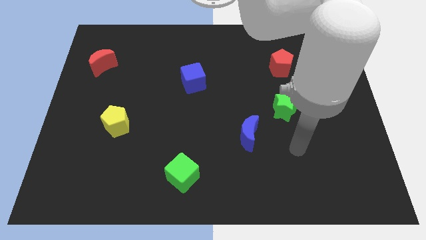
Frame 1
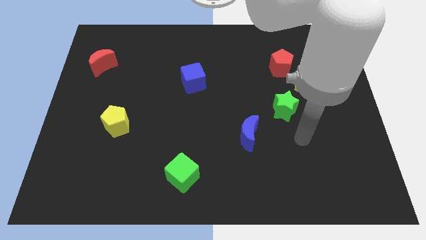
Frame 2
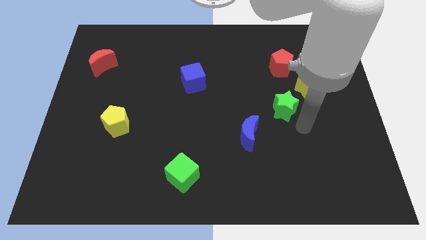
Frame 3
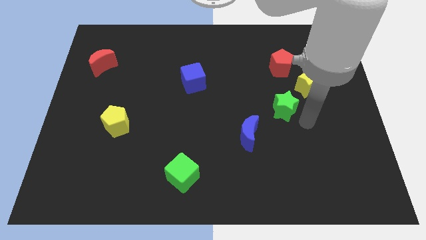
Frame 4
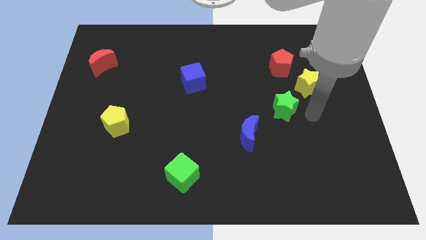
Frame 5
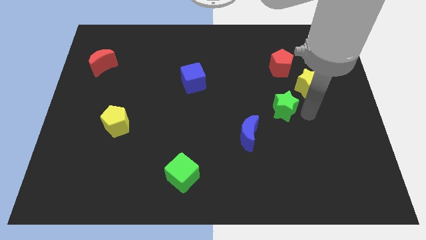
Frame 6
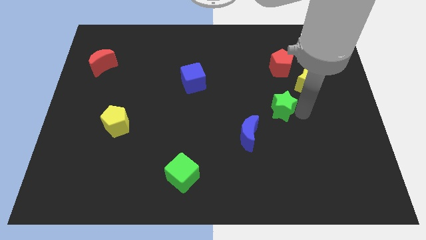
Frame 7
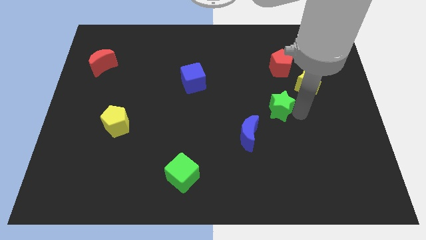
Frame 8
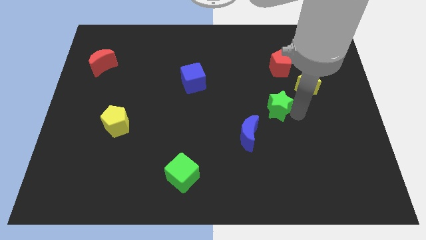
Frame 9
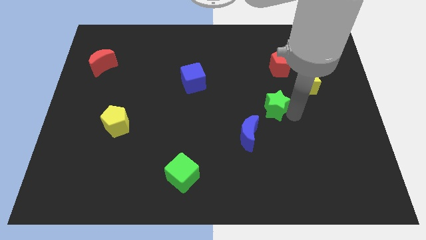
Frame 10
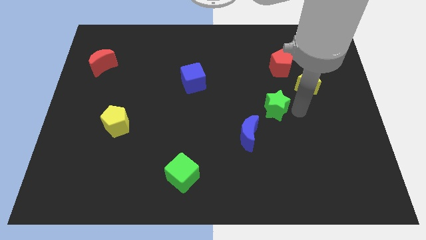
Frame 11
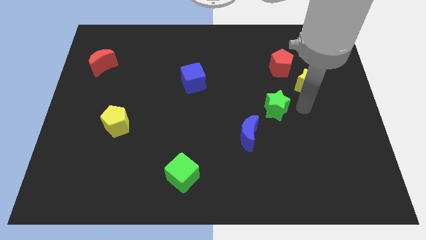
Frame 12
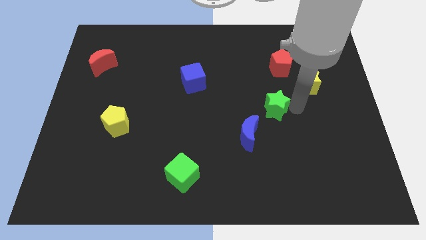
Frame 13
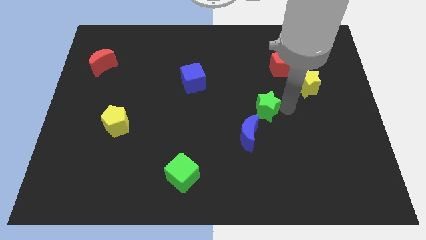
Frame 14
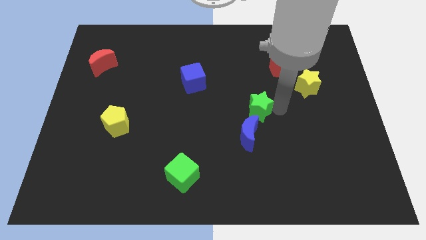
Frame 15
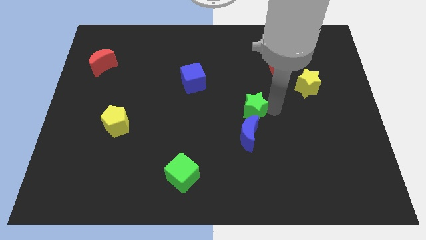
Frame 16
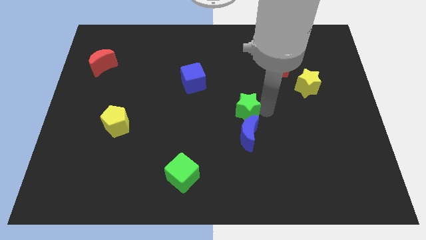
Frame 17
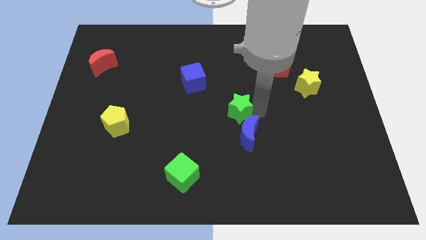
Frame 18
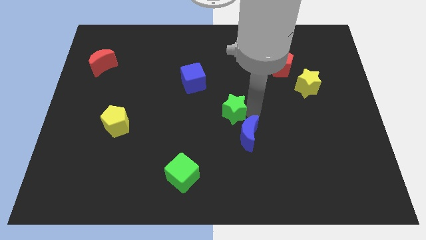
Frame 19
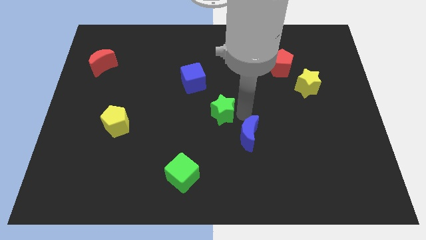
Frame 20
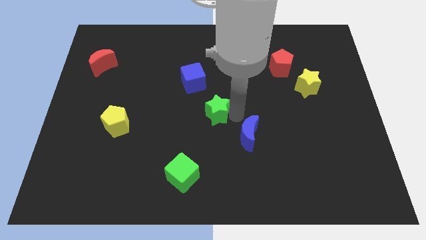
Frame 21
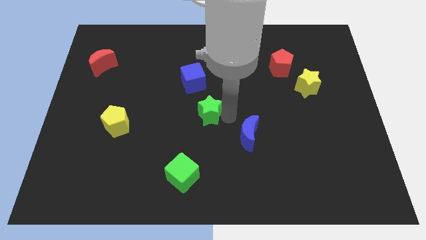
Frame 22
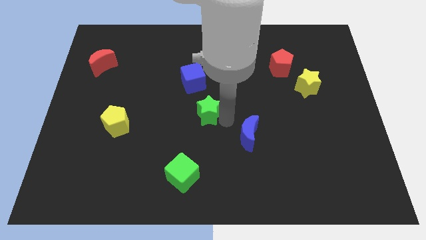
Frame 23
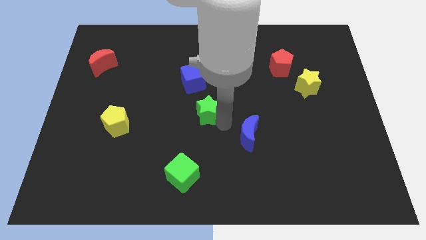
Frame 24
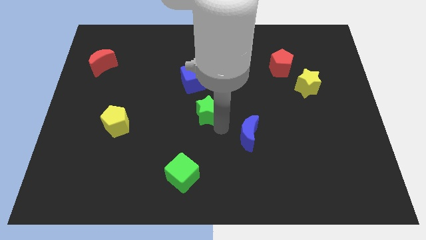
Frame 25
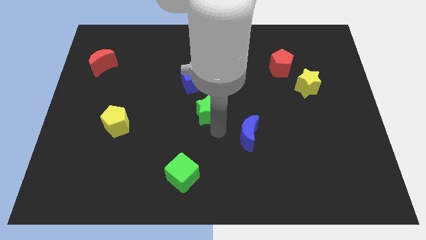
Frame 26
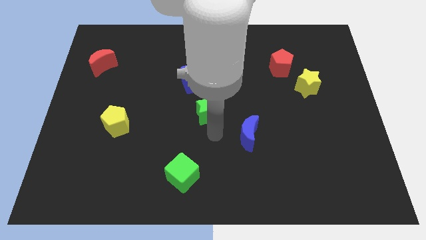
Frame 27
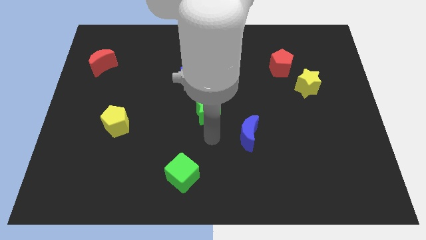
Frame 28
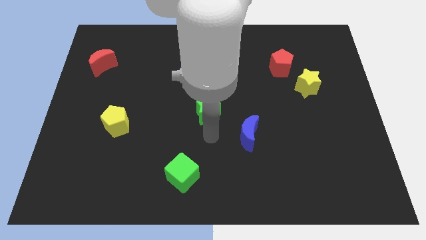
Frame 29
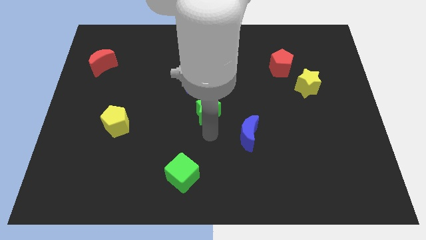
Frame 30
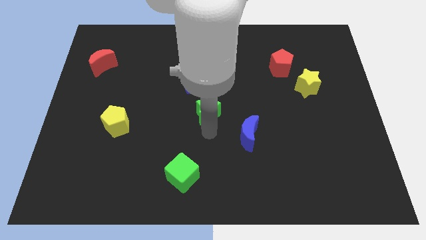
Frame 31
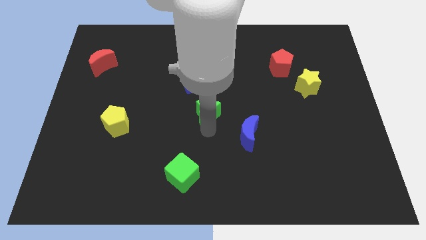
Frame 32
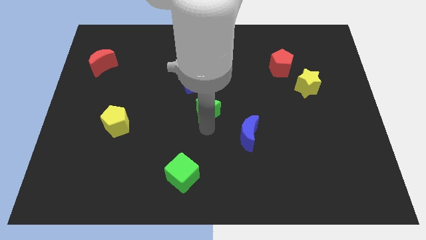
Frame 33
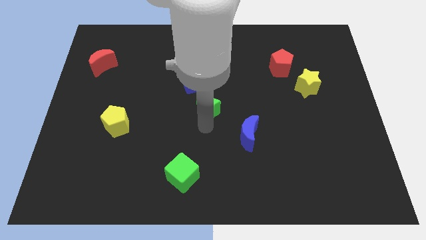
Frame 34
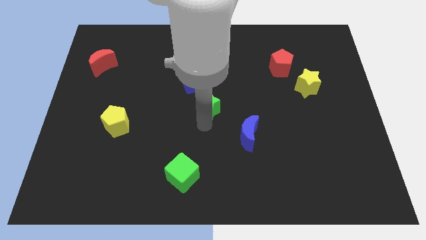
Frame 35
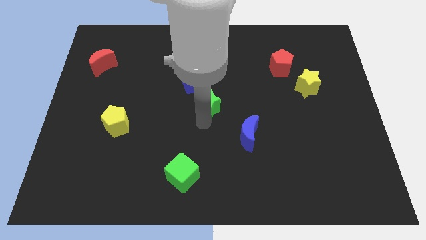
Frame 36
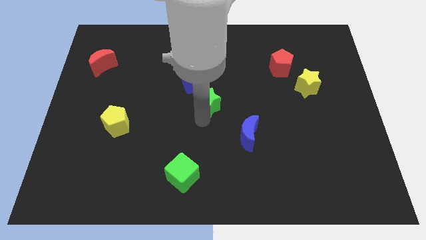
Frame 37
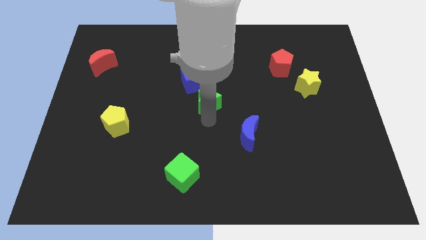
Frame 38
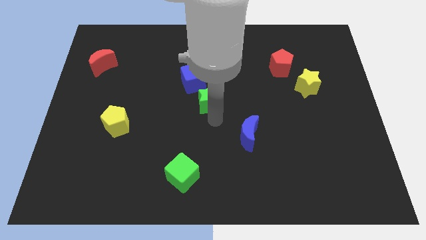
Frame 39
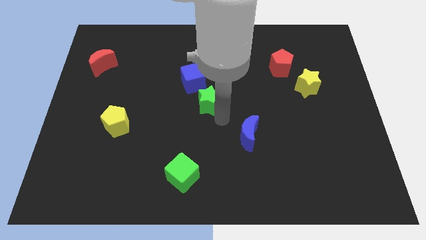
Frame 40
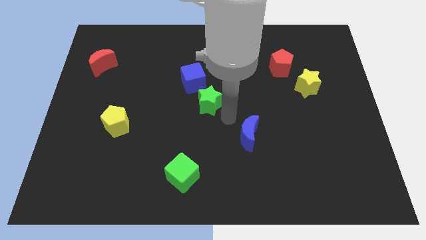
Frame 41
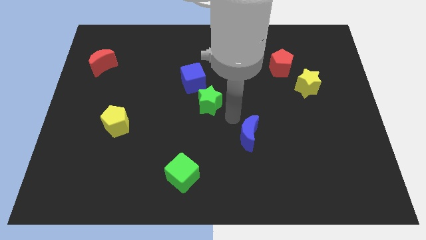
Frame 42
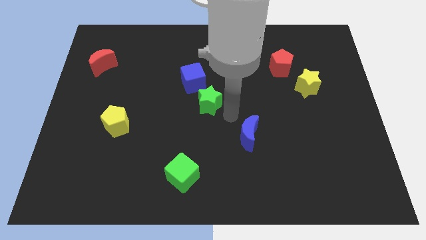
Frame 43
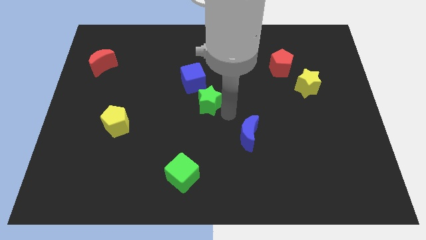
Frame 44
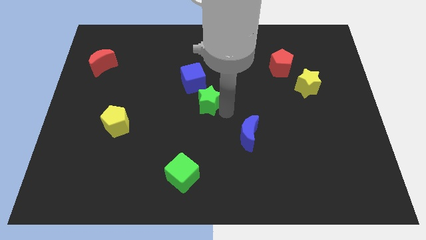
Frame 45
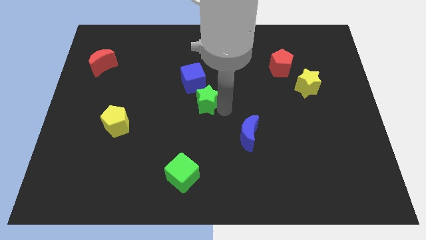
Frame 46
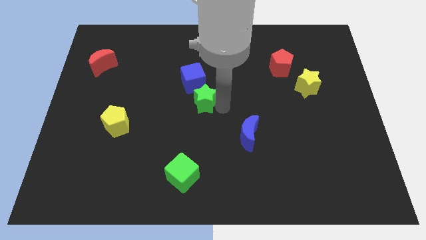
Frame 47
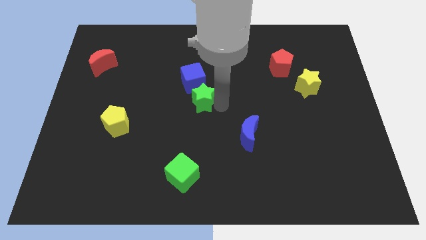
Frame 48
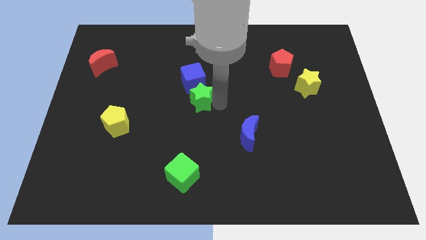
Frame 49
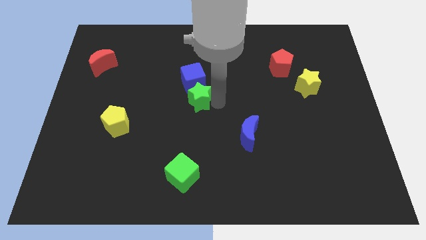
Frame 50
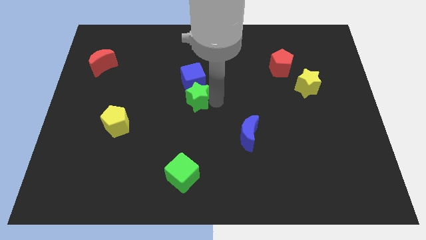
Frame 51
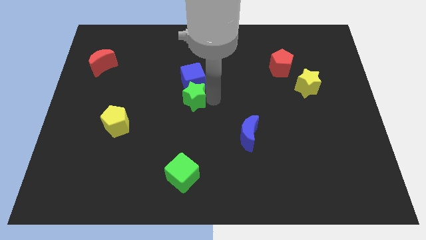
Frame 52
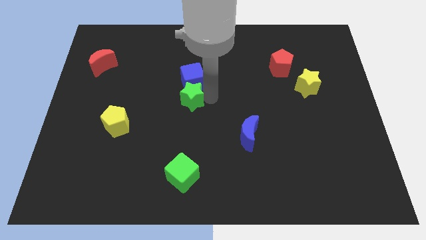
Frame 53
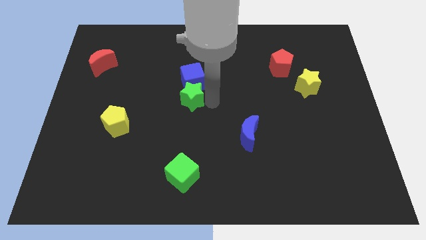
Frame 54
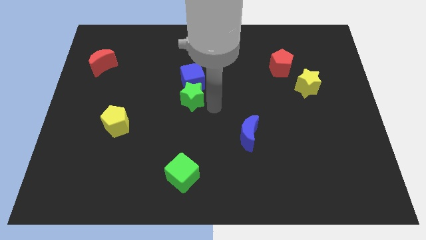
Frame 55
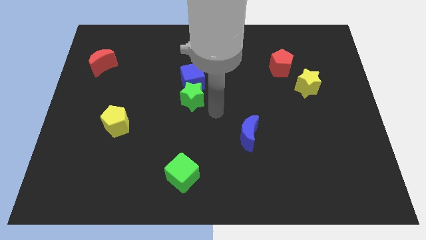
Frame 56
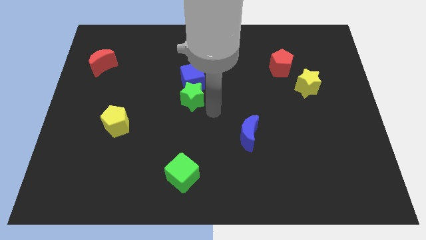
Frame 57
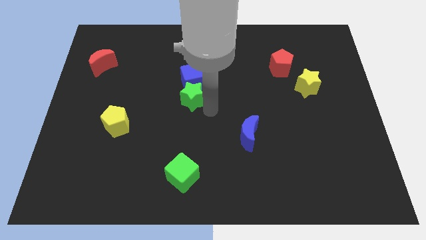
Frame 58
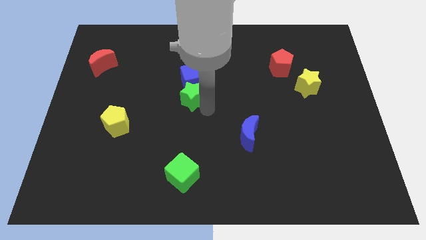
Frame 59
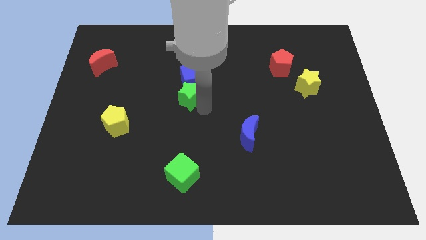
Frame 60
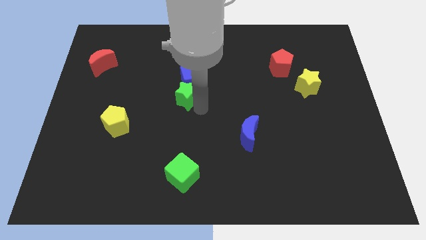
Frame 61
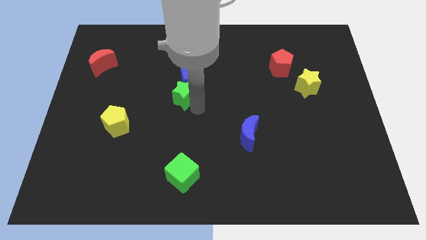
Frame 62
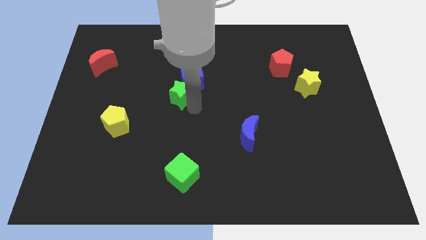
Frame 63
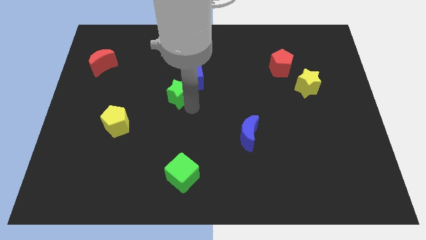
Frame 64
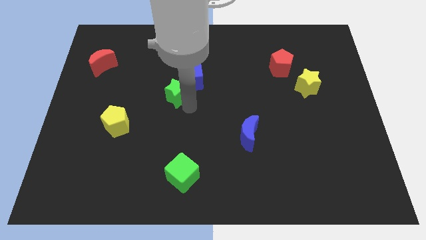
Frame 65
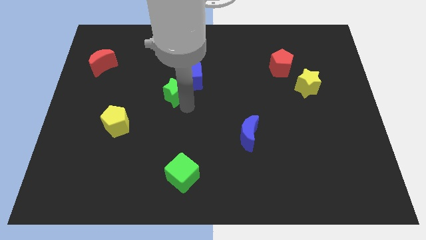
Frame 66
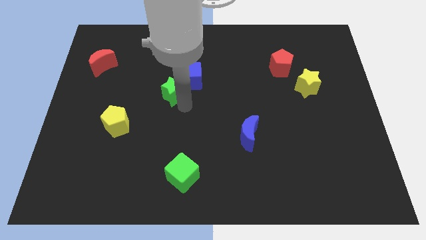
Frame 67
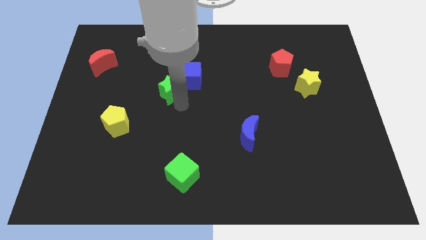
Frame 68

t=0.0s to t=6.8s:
slide the green star just left of the blue cube
